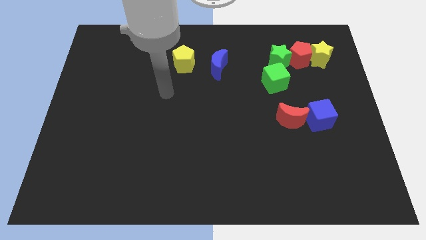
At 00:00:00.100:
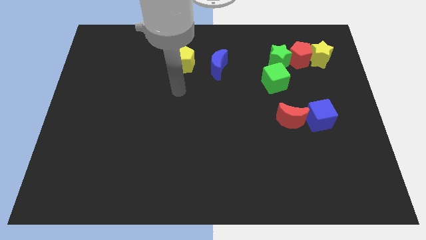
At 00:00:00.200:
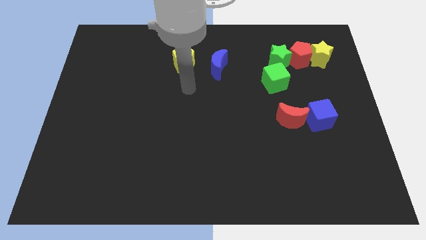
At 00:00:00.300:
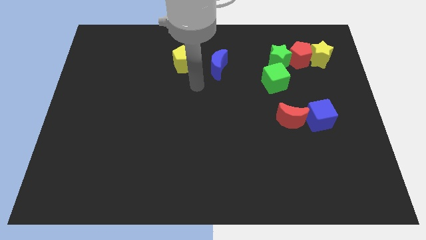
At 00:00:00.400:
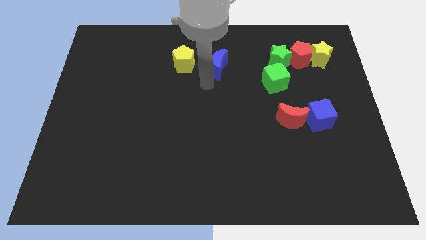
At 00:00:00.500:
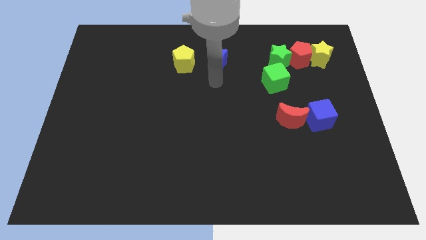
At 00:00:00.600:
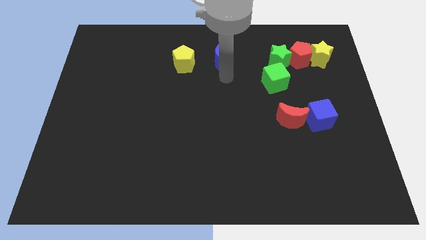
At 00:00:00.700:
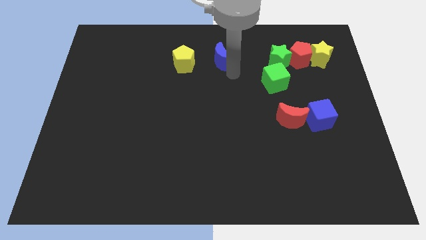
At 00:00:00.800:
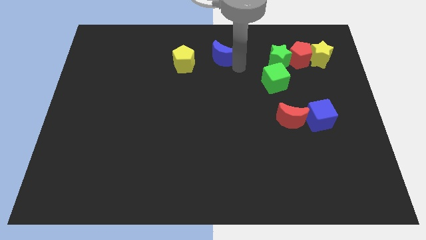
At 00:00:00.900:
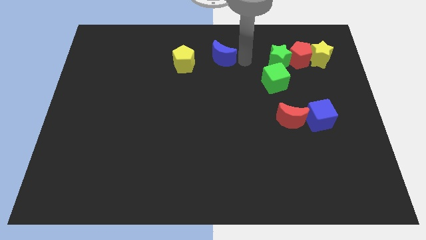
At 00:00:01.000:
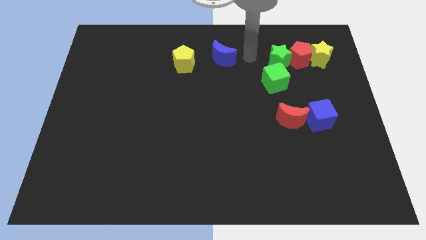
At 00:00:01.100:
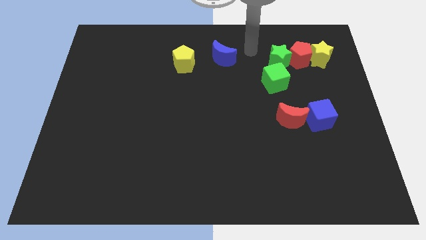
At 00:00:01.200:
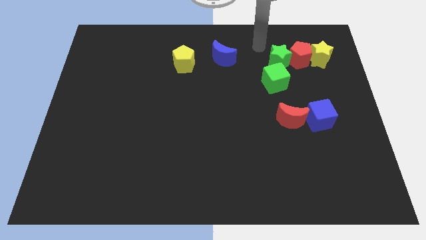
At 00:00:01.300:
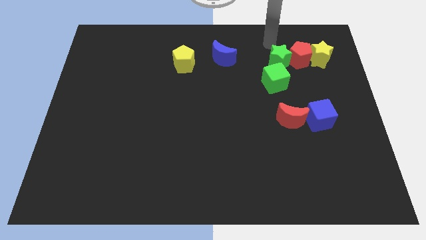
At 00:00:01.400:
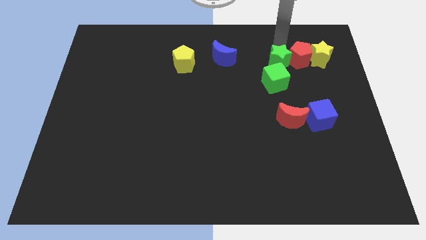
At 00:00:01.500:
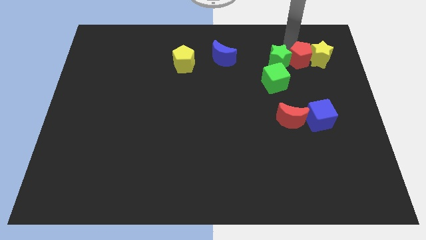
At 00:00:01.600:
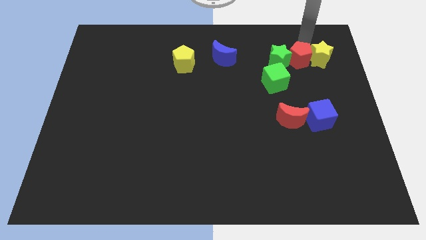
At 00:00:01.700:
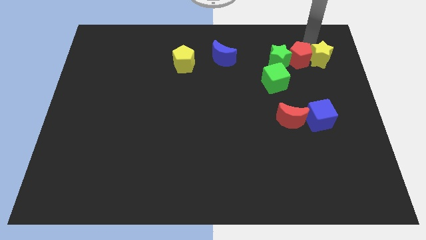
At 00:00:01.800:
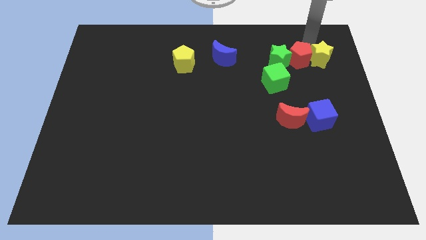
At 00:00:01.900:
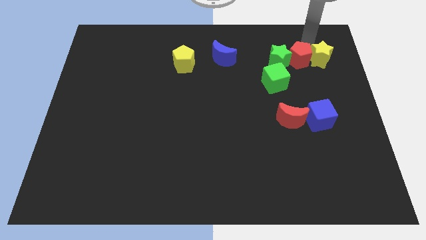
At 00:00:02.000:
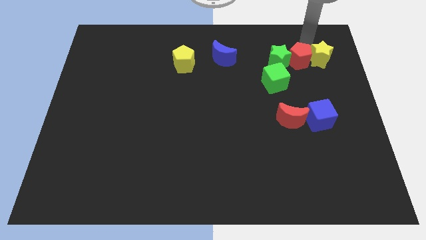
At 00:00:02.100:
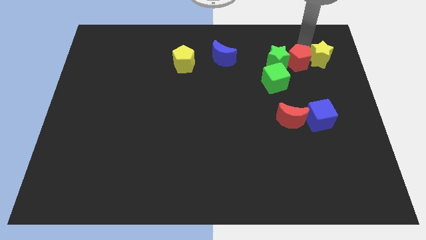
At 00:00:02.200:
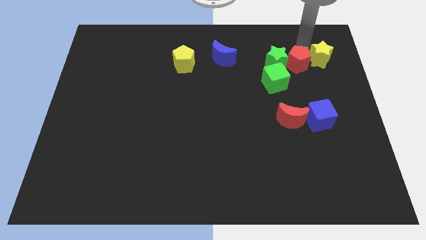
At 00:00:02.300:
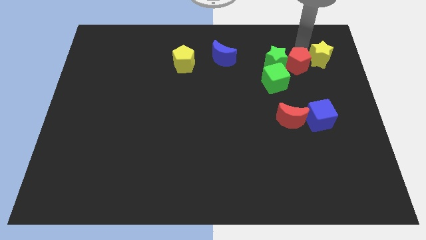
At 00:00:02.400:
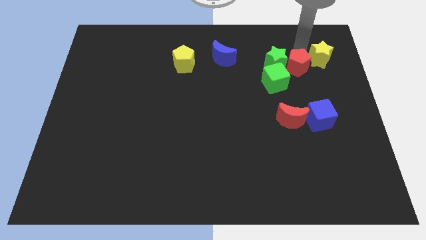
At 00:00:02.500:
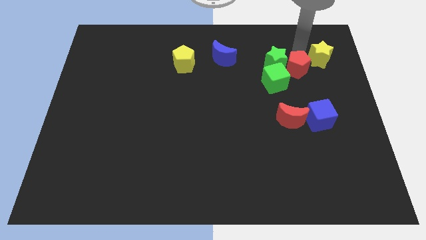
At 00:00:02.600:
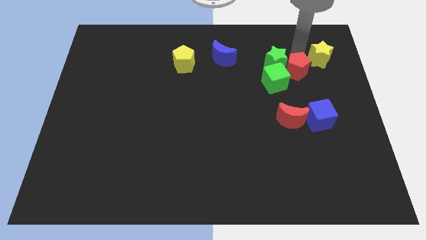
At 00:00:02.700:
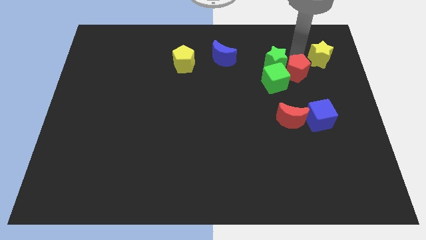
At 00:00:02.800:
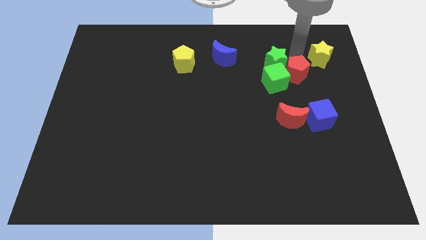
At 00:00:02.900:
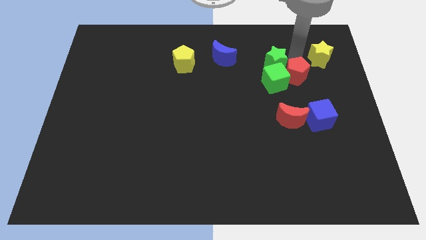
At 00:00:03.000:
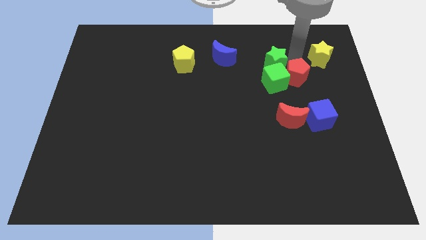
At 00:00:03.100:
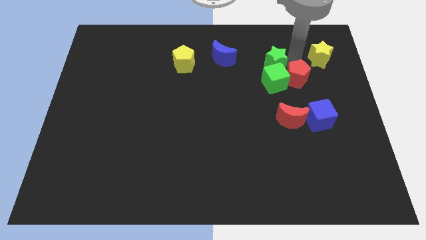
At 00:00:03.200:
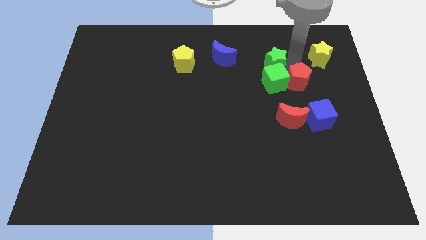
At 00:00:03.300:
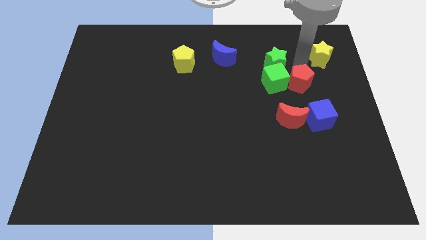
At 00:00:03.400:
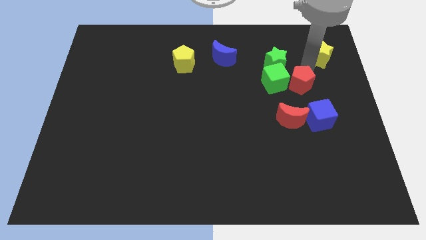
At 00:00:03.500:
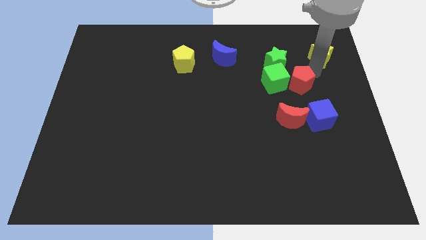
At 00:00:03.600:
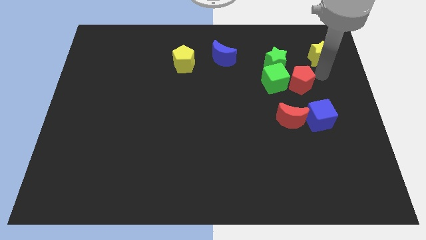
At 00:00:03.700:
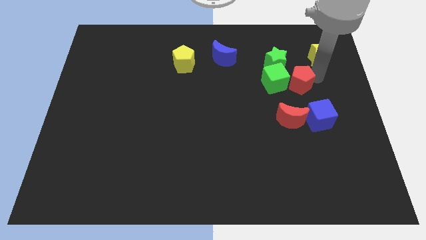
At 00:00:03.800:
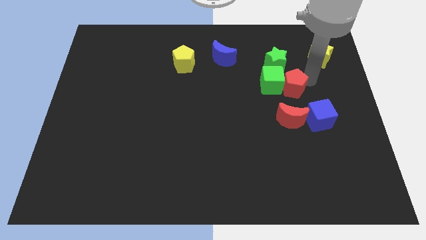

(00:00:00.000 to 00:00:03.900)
move the red pentagon a little bit diagonally downwards and to the left

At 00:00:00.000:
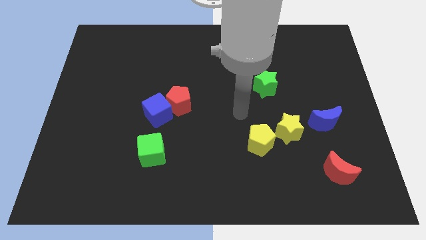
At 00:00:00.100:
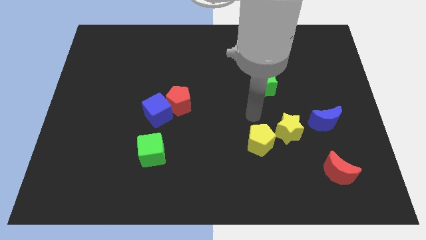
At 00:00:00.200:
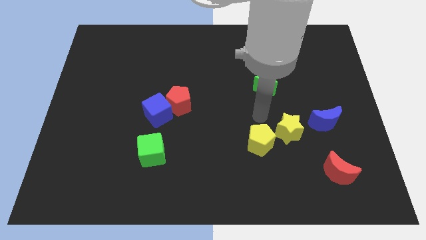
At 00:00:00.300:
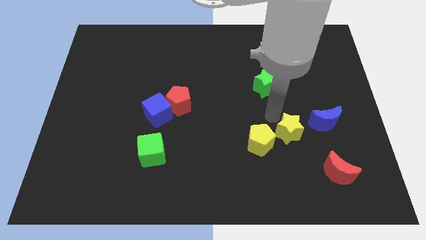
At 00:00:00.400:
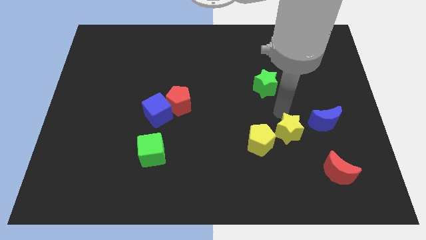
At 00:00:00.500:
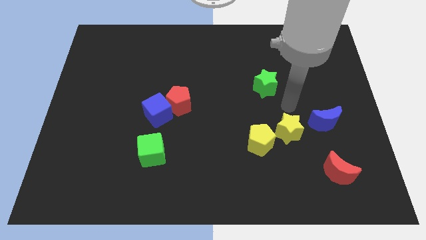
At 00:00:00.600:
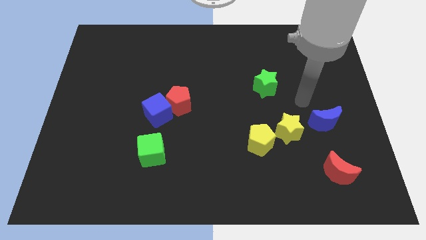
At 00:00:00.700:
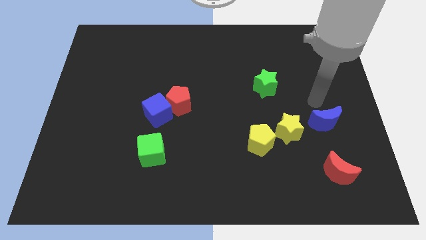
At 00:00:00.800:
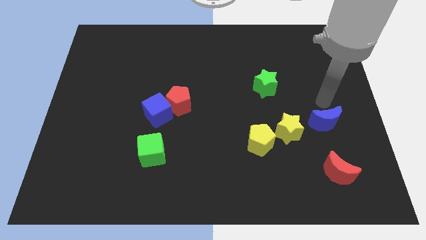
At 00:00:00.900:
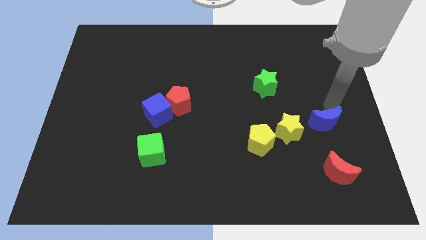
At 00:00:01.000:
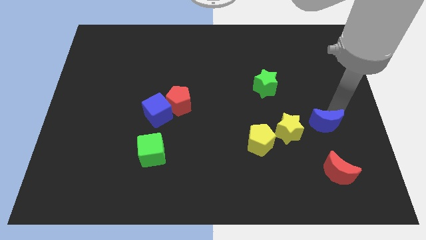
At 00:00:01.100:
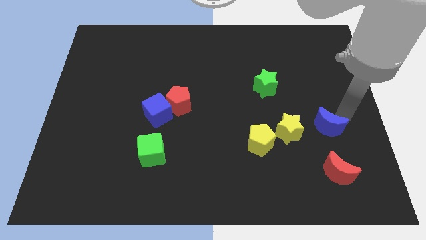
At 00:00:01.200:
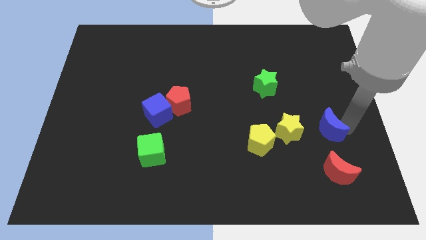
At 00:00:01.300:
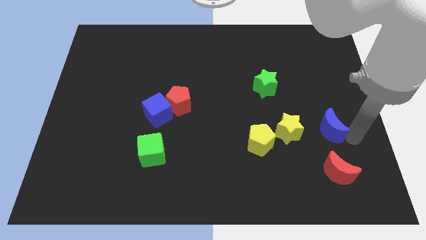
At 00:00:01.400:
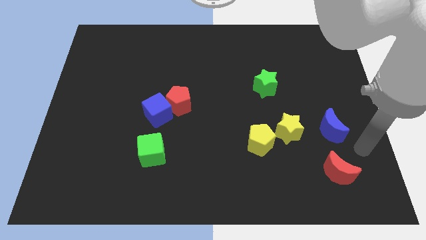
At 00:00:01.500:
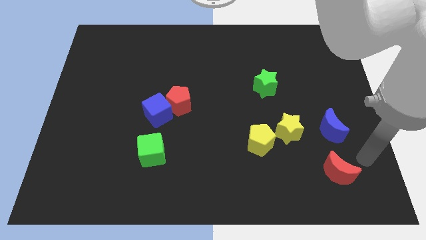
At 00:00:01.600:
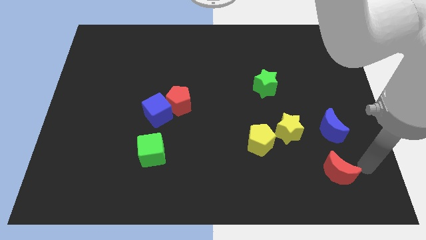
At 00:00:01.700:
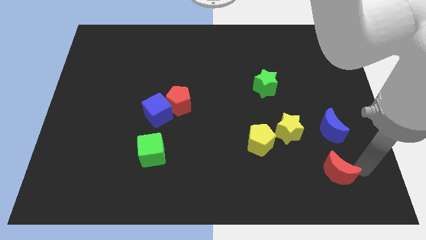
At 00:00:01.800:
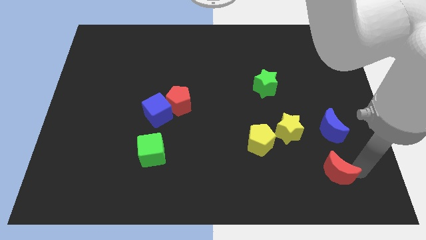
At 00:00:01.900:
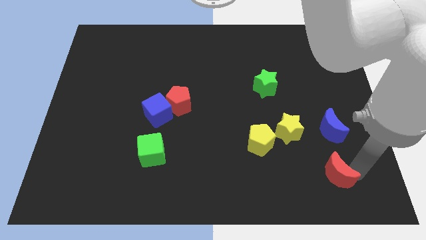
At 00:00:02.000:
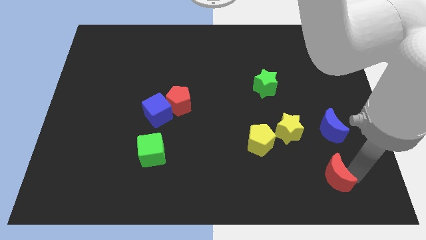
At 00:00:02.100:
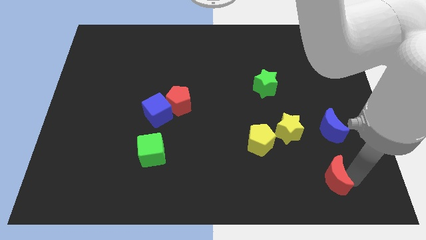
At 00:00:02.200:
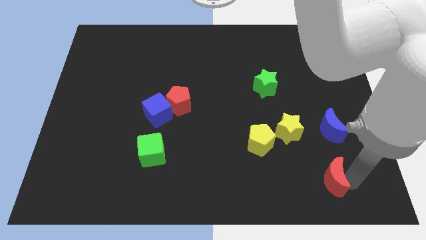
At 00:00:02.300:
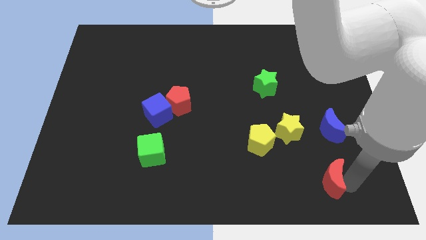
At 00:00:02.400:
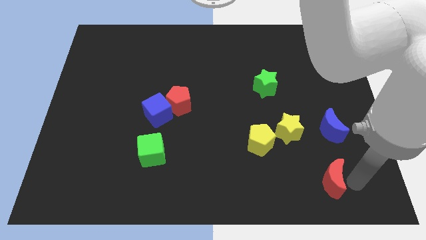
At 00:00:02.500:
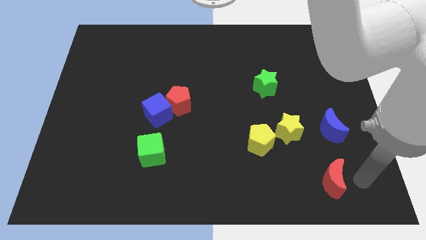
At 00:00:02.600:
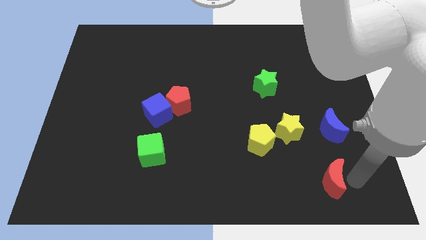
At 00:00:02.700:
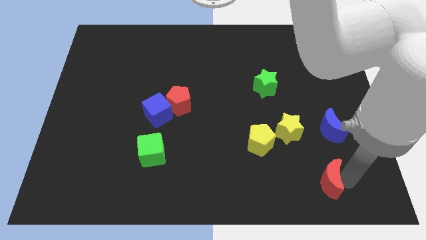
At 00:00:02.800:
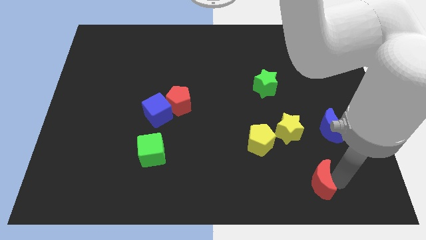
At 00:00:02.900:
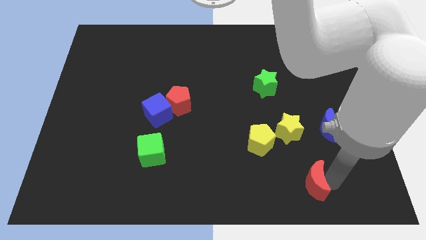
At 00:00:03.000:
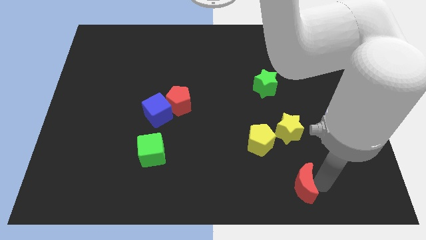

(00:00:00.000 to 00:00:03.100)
slightly slide the red moon left

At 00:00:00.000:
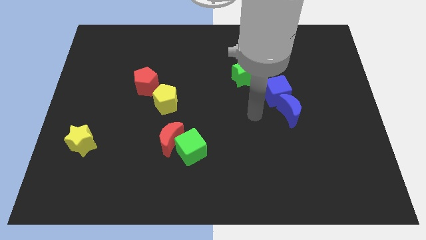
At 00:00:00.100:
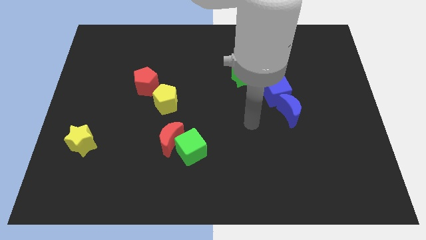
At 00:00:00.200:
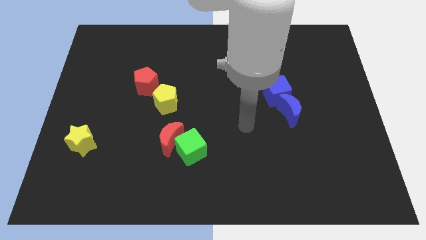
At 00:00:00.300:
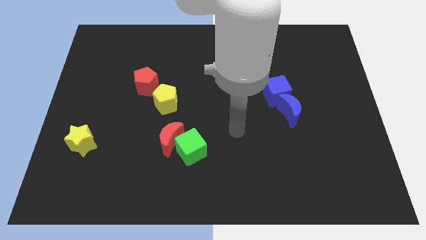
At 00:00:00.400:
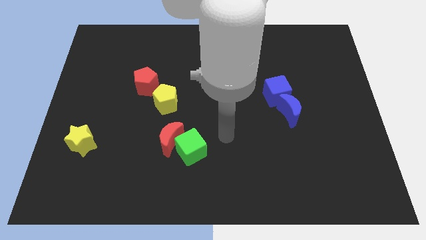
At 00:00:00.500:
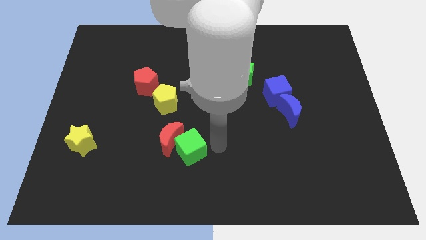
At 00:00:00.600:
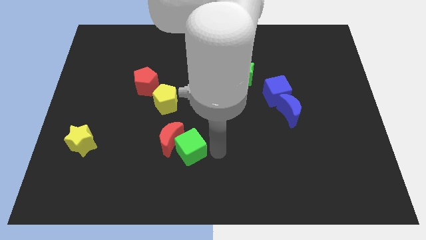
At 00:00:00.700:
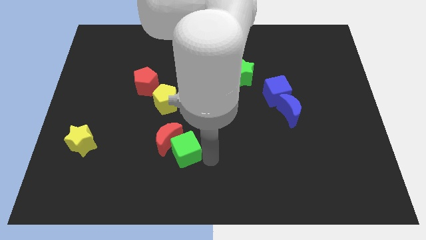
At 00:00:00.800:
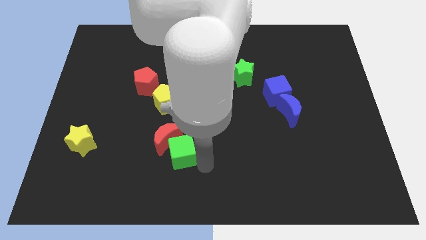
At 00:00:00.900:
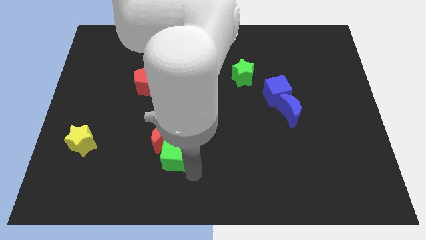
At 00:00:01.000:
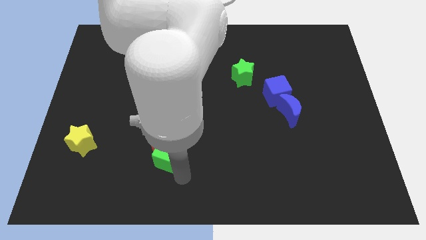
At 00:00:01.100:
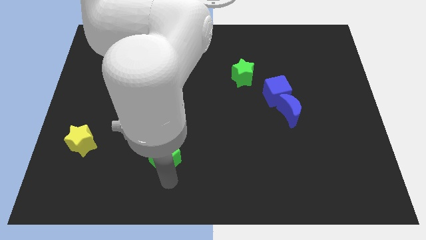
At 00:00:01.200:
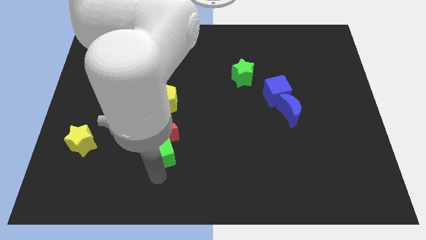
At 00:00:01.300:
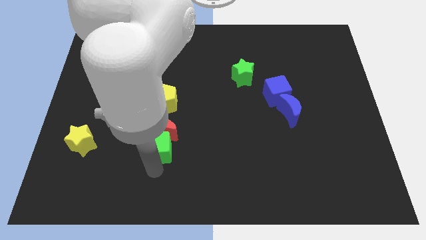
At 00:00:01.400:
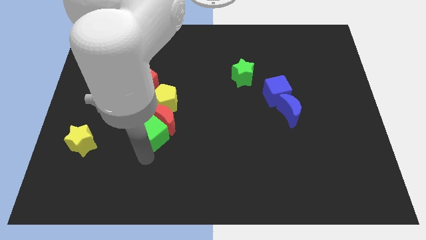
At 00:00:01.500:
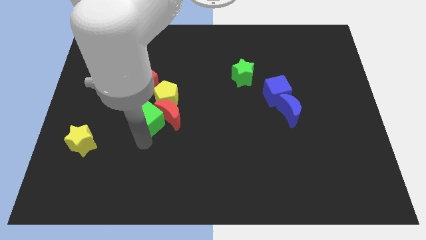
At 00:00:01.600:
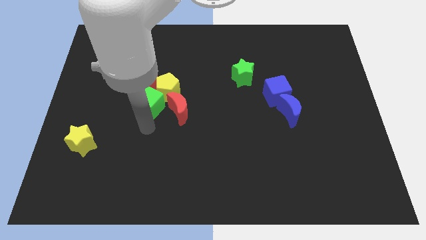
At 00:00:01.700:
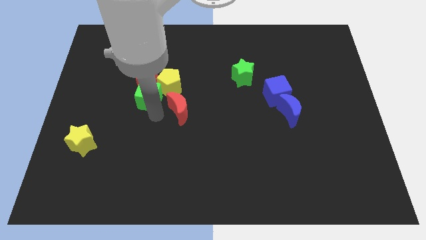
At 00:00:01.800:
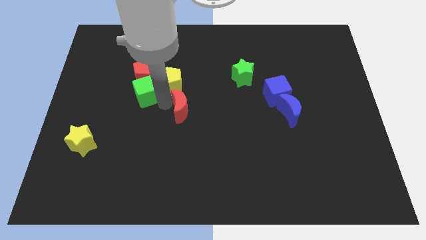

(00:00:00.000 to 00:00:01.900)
push the red moon slightly upwards and to the right
